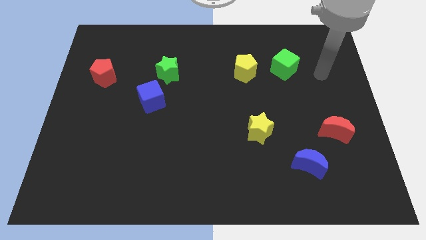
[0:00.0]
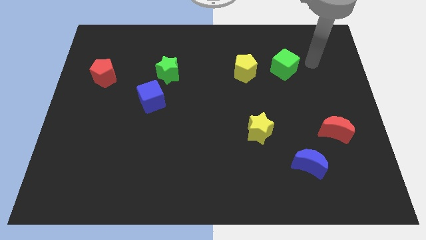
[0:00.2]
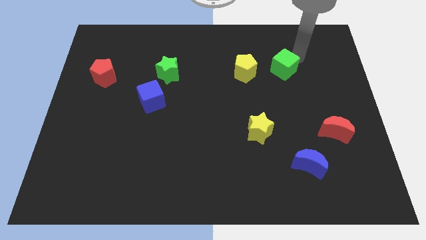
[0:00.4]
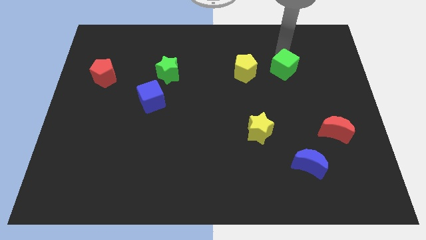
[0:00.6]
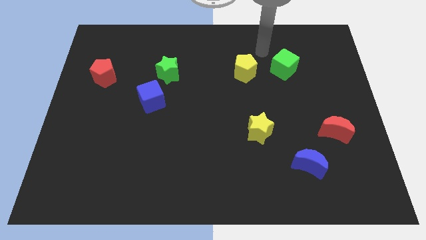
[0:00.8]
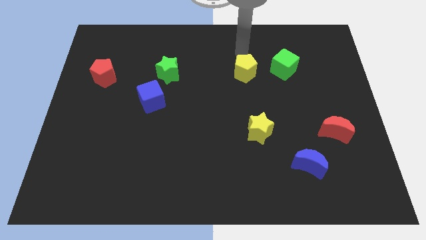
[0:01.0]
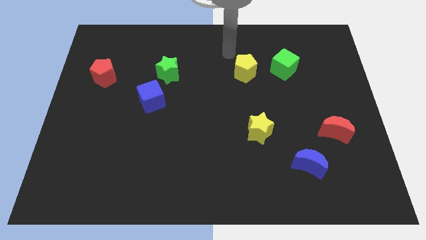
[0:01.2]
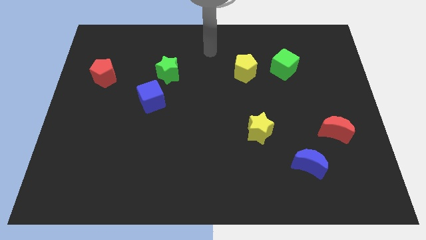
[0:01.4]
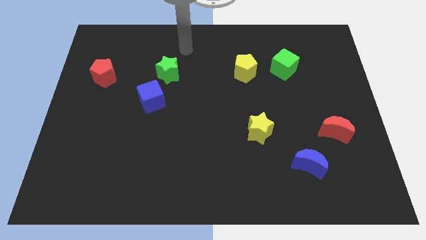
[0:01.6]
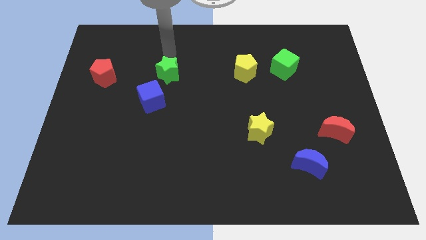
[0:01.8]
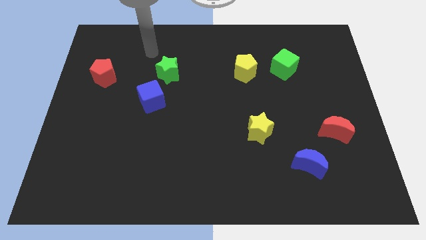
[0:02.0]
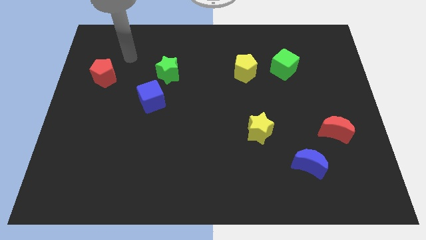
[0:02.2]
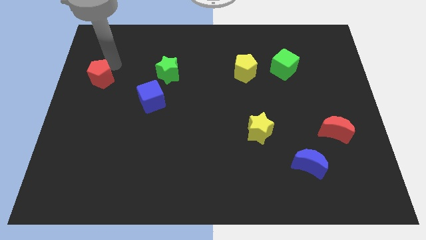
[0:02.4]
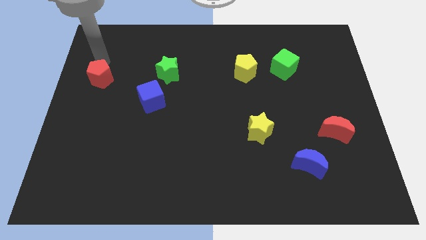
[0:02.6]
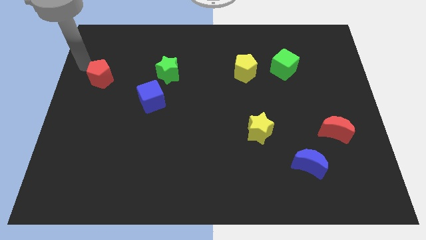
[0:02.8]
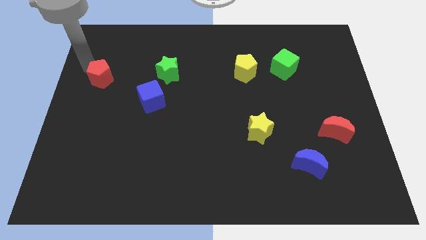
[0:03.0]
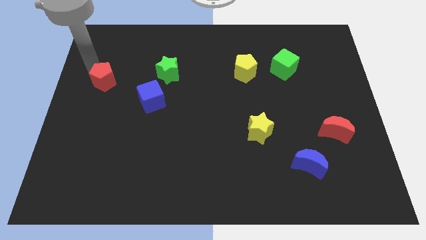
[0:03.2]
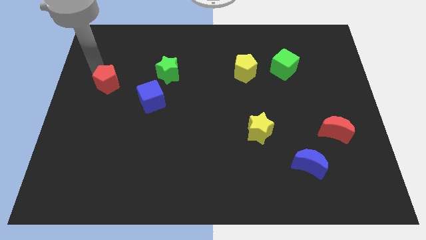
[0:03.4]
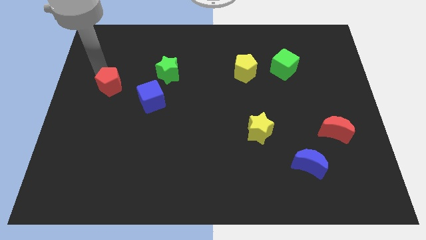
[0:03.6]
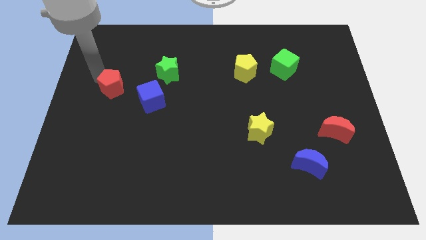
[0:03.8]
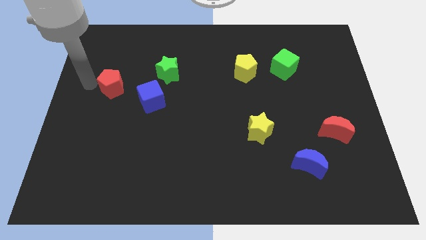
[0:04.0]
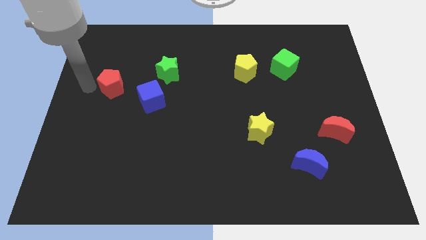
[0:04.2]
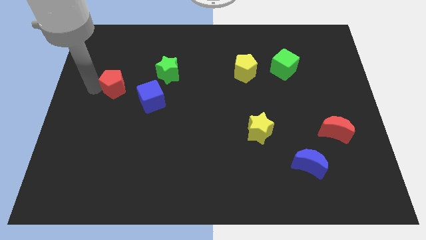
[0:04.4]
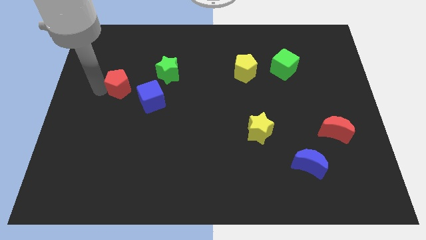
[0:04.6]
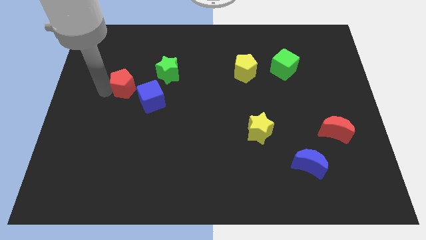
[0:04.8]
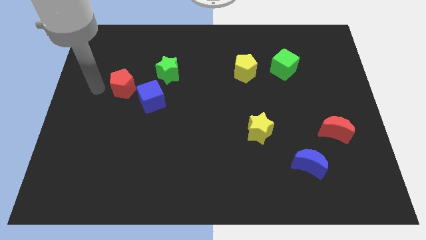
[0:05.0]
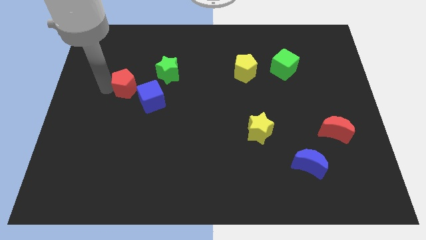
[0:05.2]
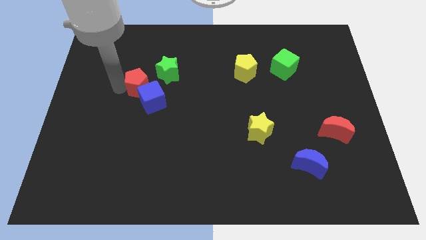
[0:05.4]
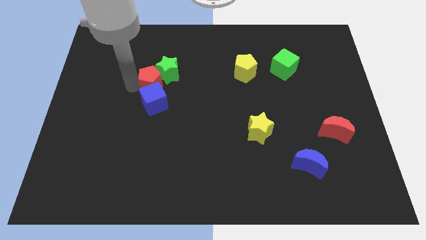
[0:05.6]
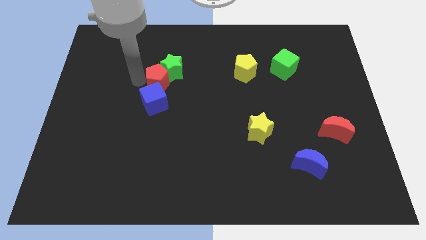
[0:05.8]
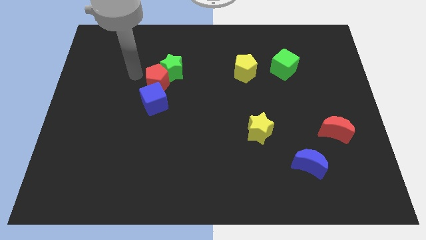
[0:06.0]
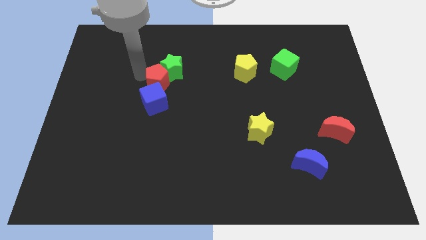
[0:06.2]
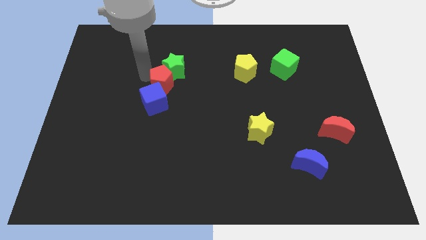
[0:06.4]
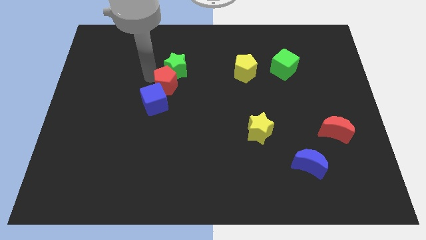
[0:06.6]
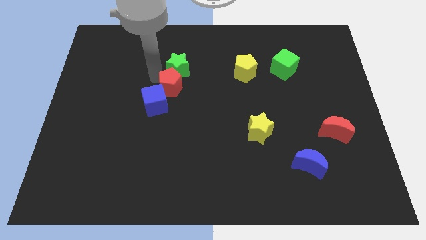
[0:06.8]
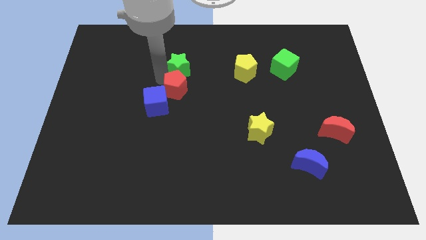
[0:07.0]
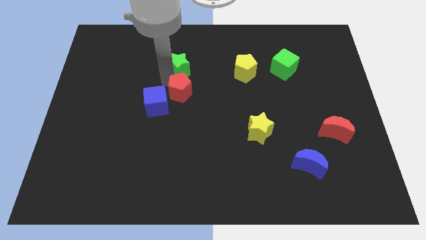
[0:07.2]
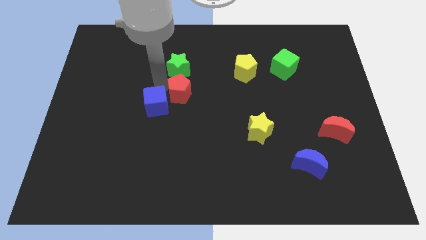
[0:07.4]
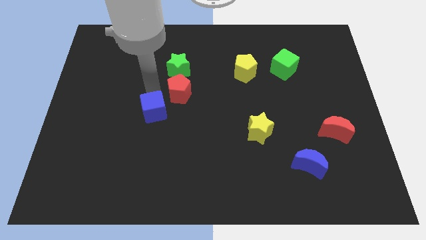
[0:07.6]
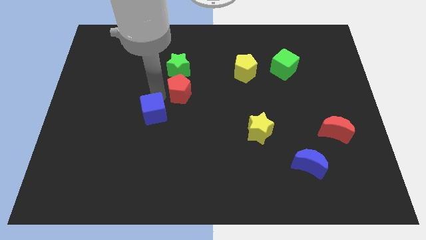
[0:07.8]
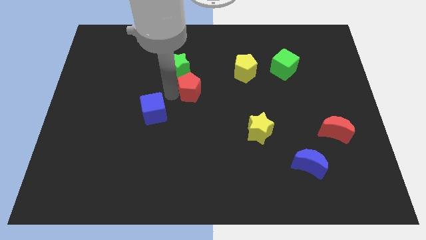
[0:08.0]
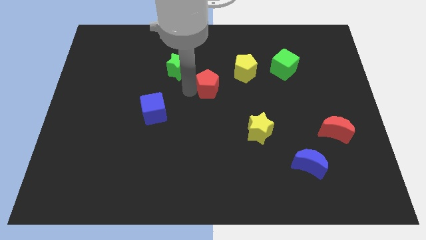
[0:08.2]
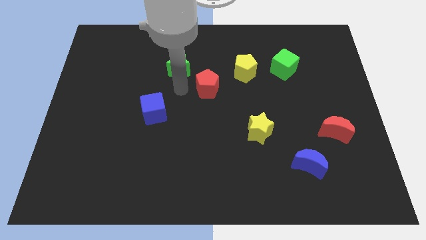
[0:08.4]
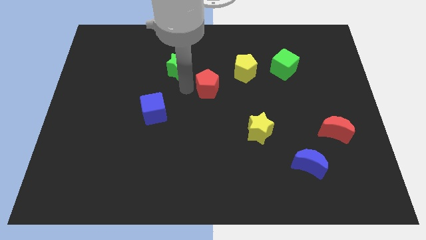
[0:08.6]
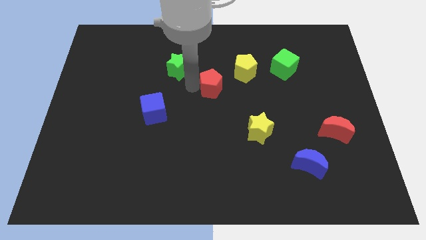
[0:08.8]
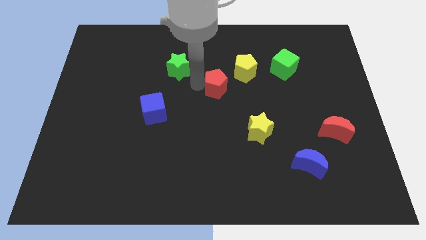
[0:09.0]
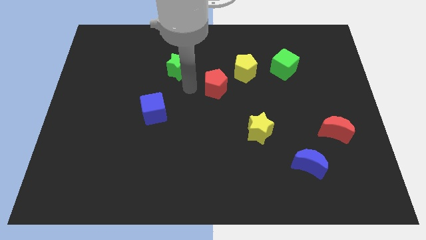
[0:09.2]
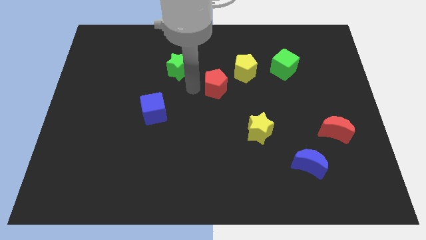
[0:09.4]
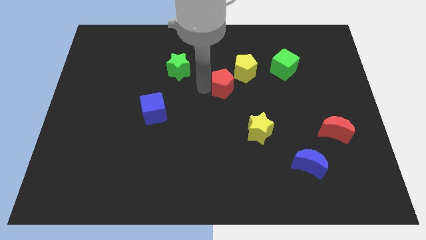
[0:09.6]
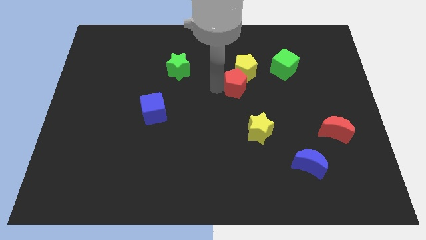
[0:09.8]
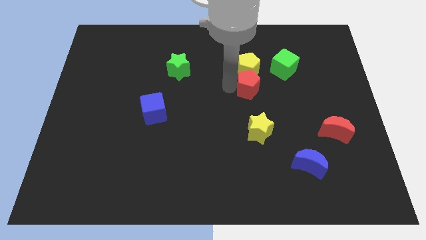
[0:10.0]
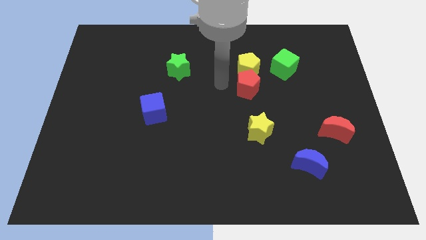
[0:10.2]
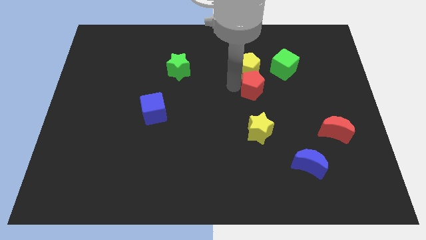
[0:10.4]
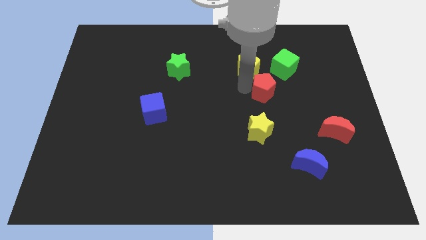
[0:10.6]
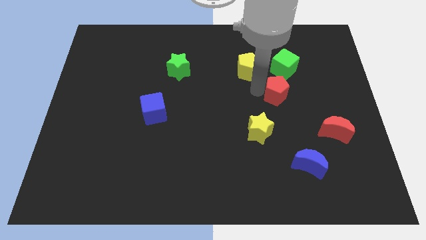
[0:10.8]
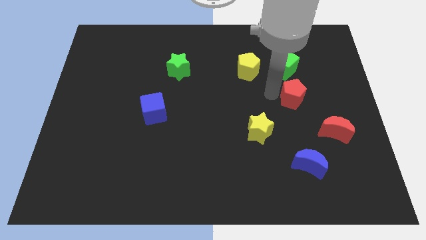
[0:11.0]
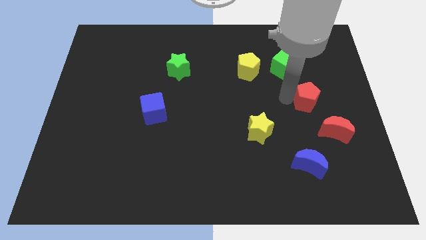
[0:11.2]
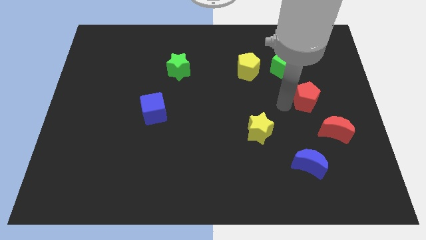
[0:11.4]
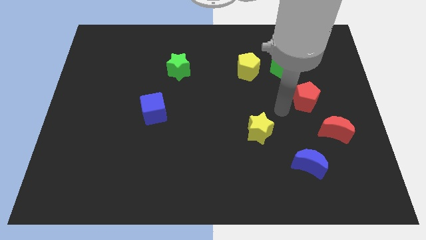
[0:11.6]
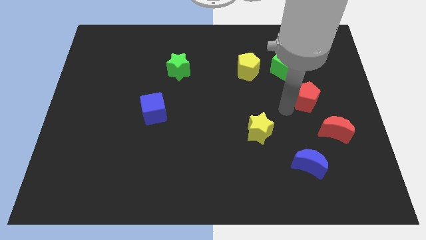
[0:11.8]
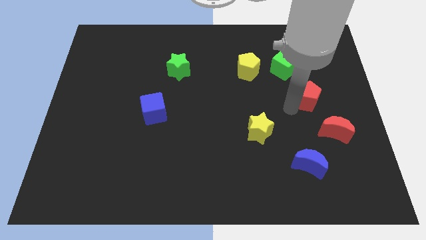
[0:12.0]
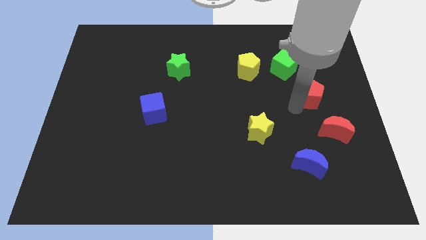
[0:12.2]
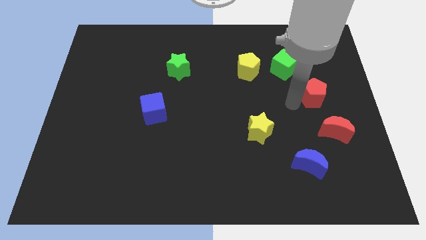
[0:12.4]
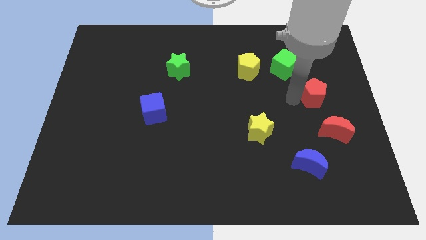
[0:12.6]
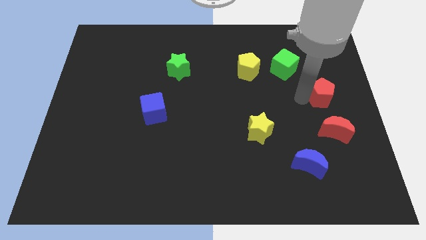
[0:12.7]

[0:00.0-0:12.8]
slide the red pentagon to the center right
